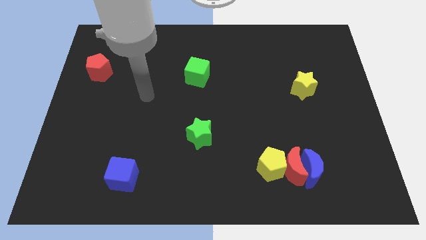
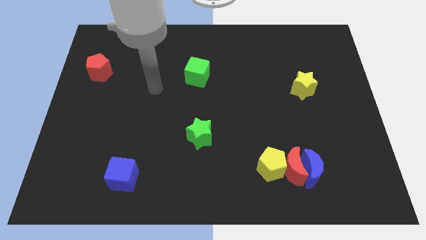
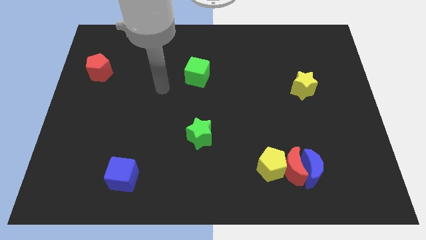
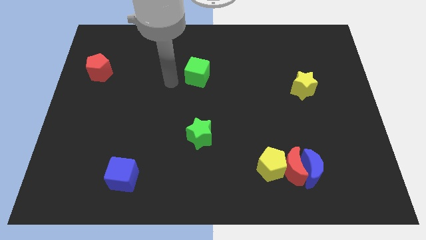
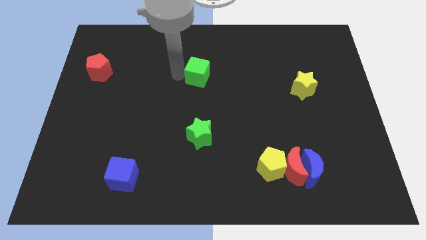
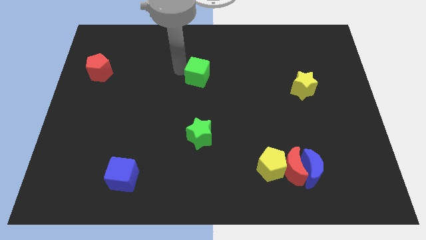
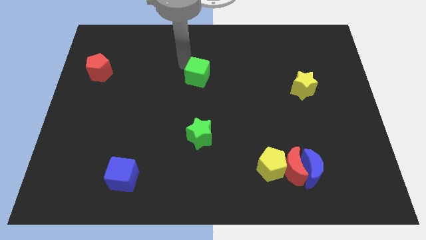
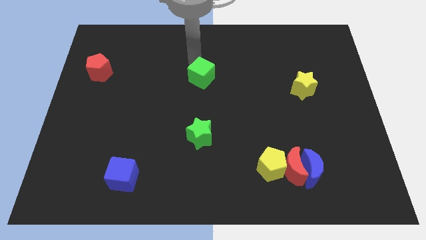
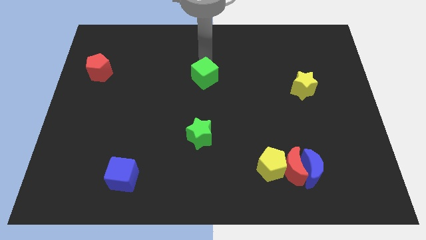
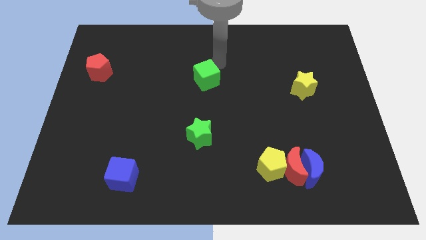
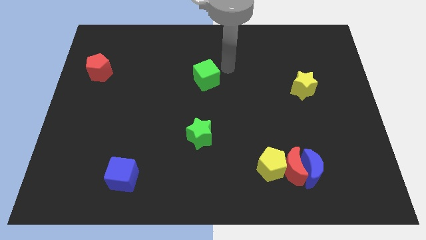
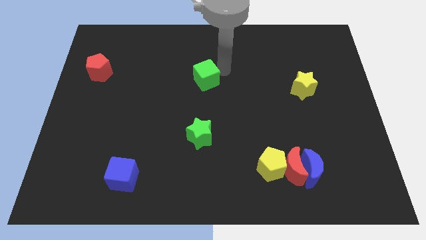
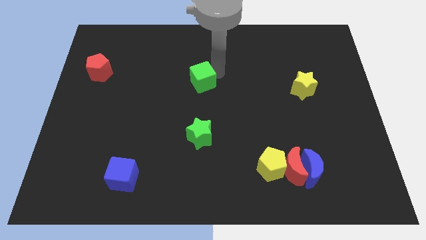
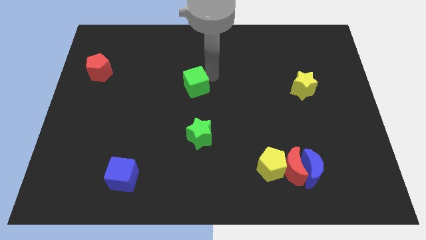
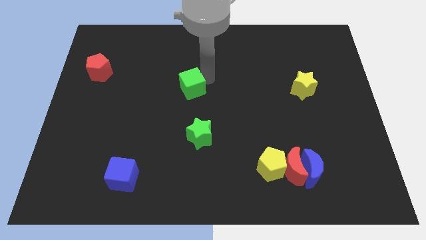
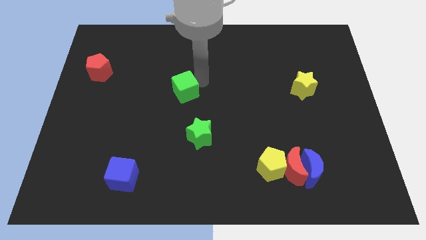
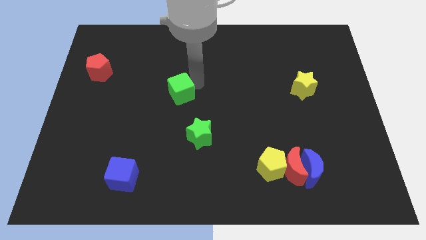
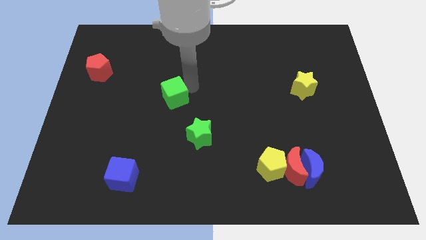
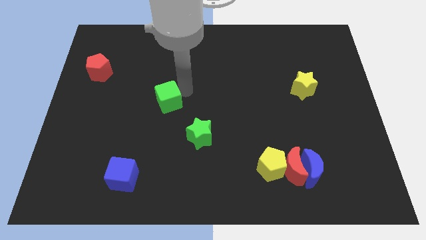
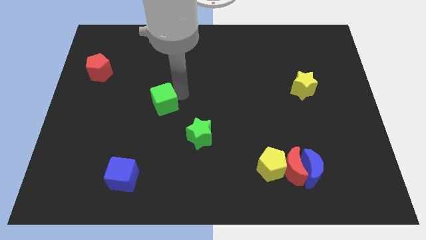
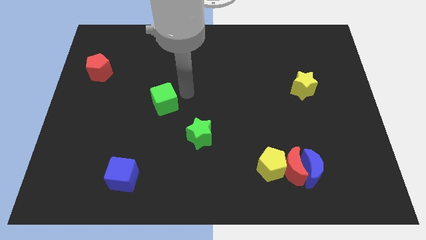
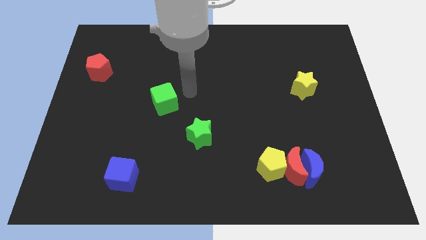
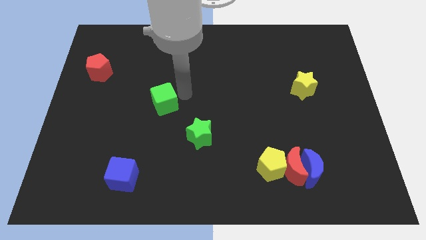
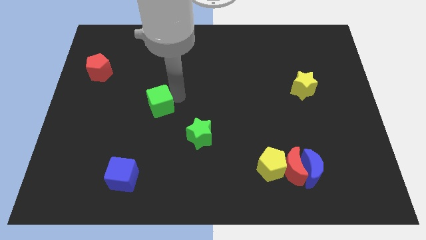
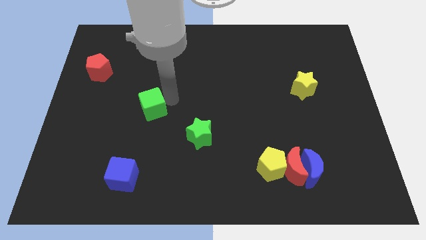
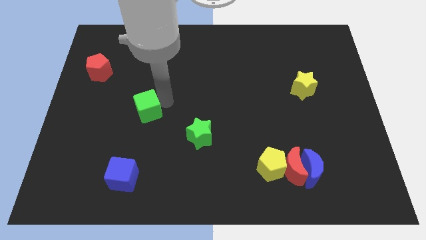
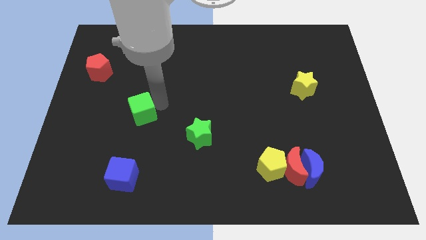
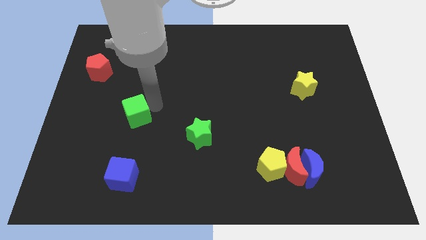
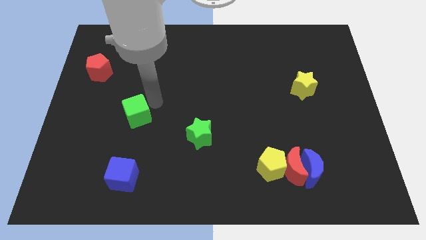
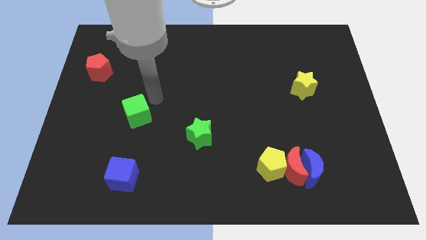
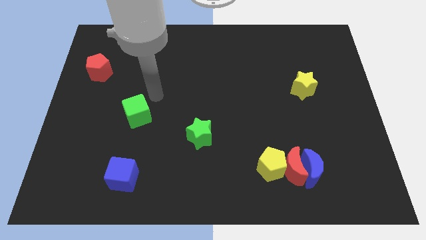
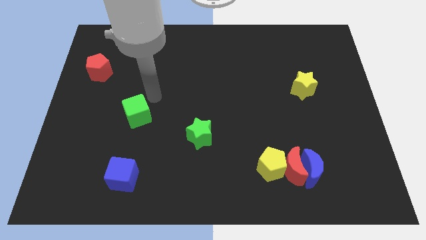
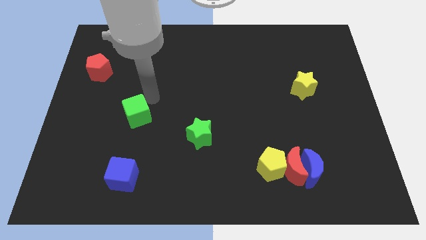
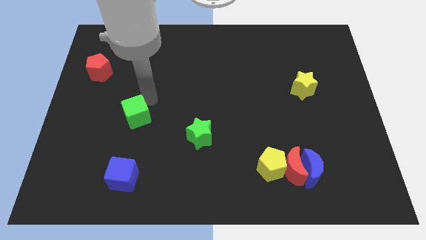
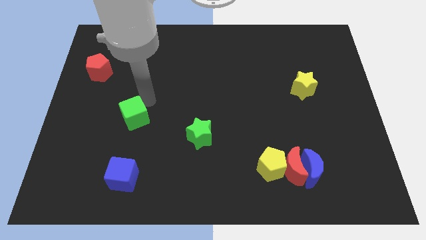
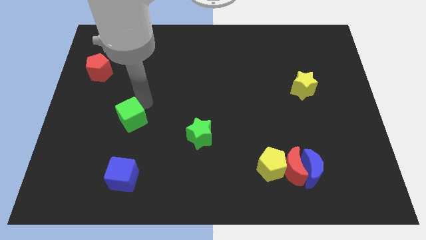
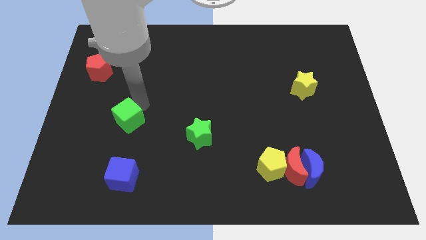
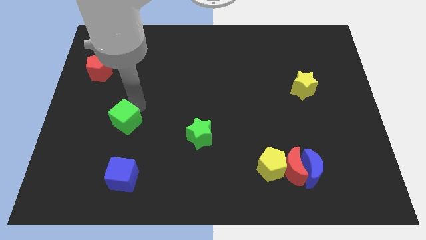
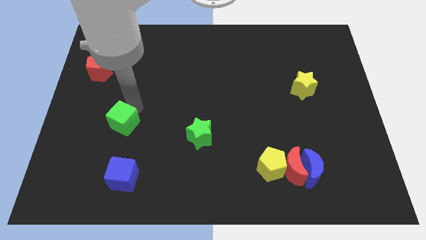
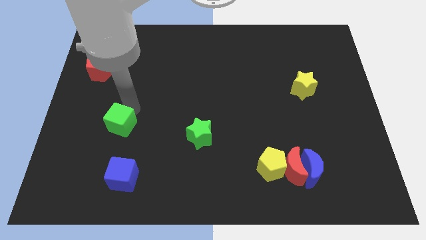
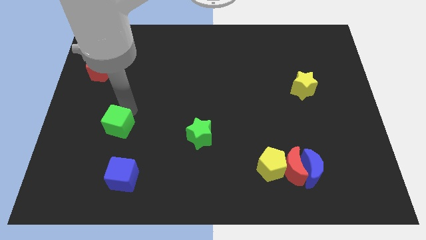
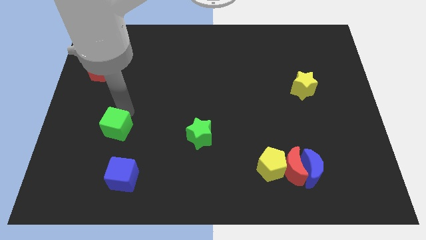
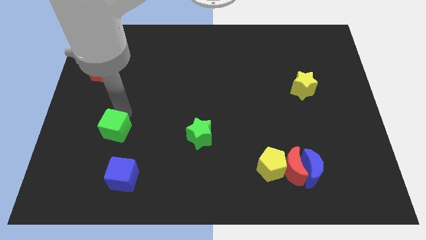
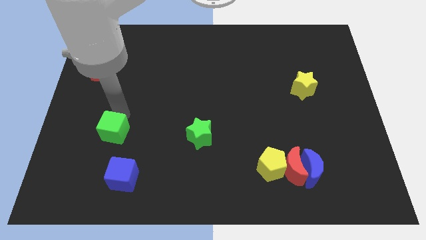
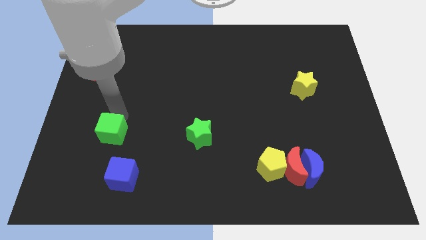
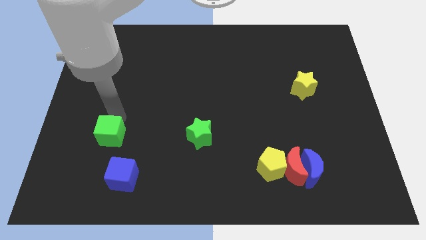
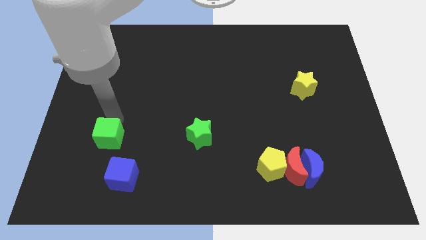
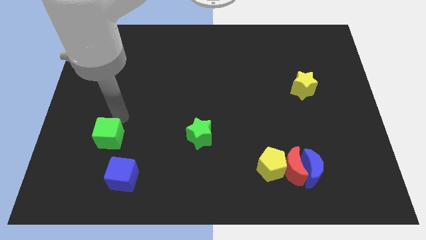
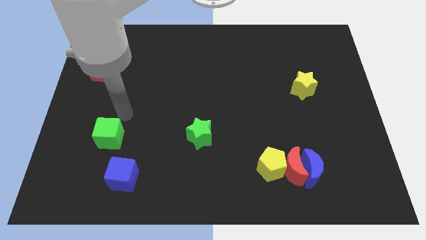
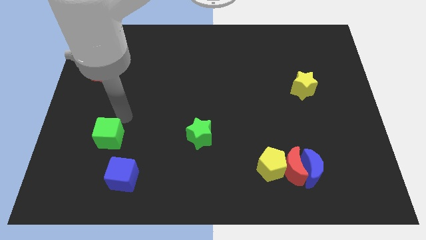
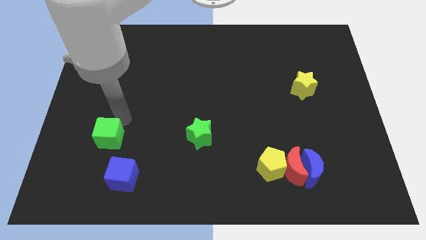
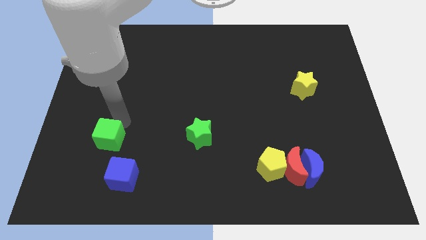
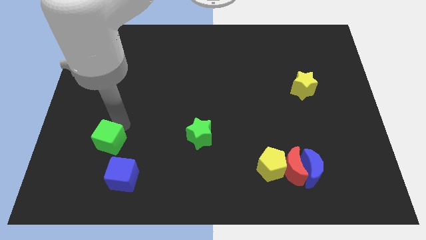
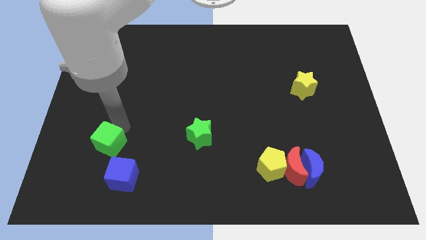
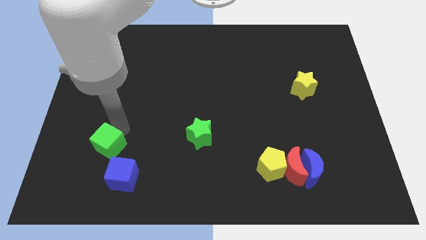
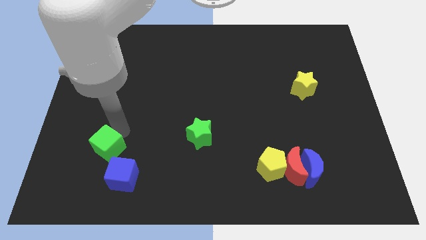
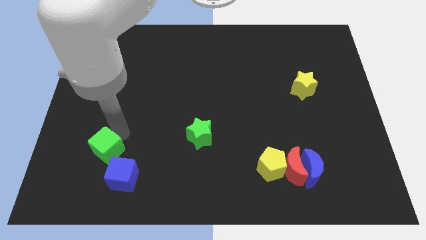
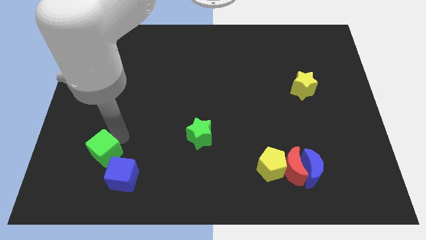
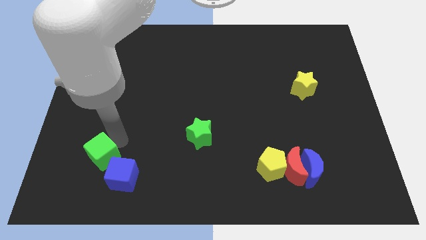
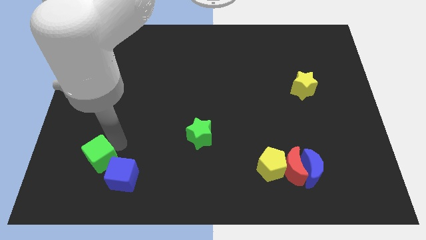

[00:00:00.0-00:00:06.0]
move the green cube just left of the blue cube

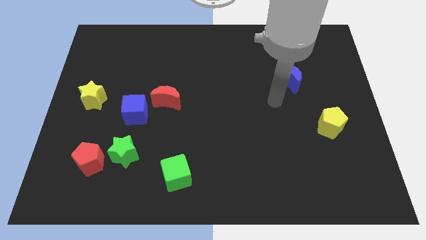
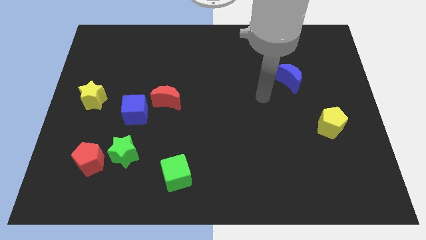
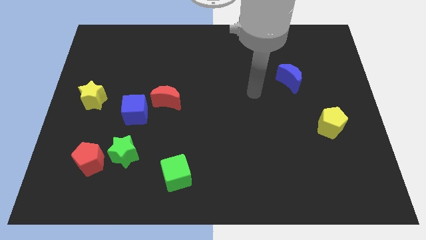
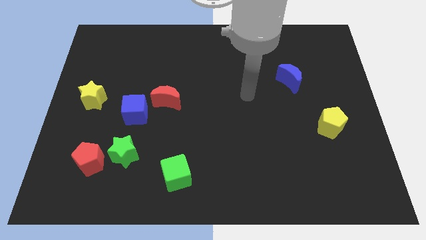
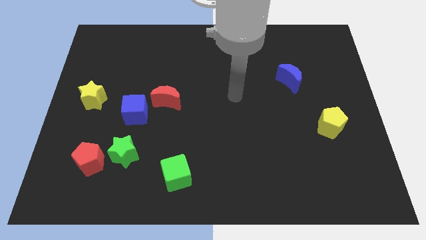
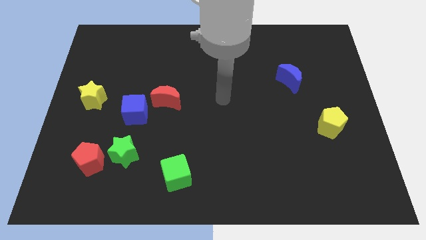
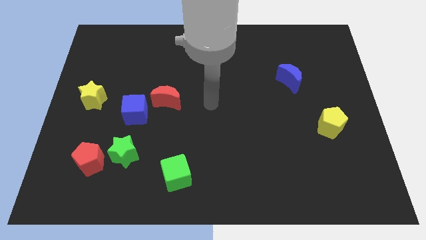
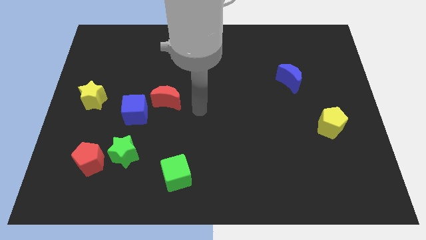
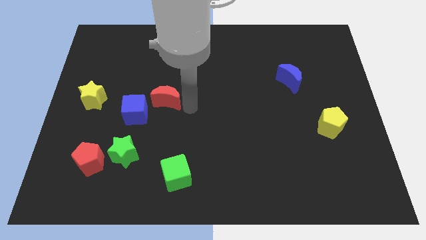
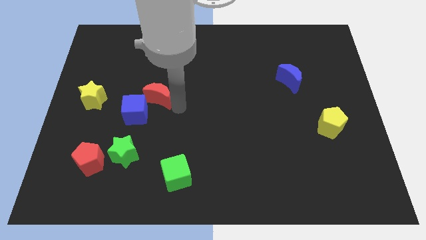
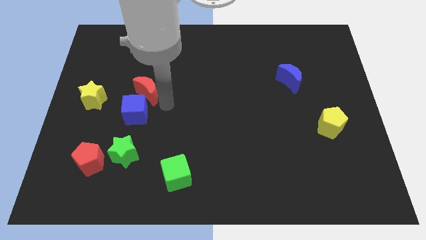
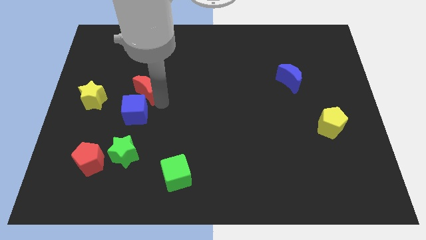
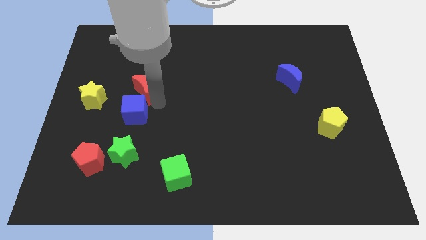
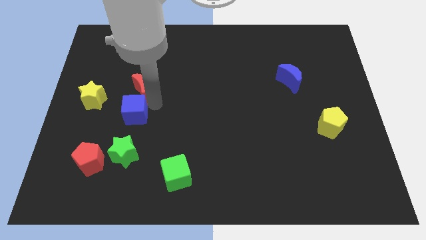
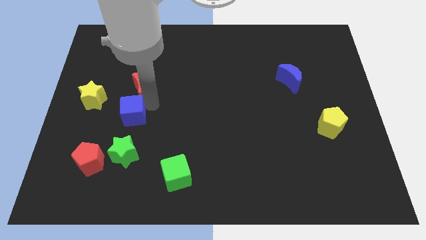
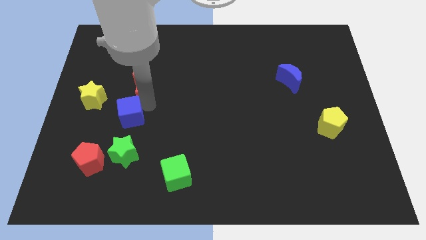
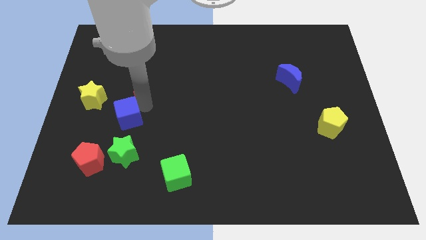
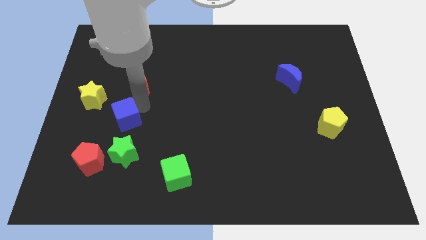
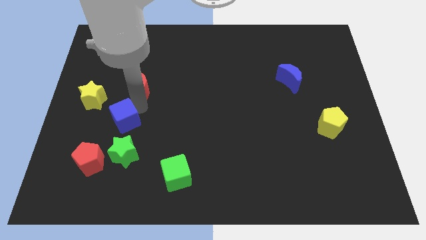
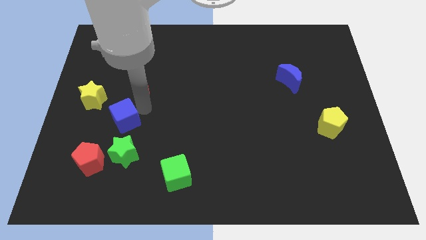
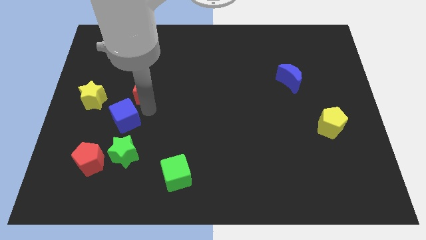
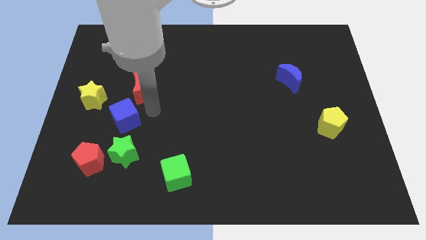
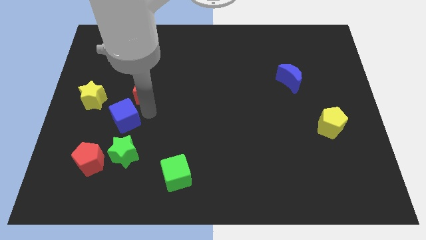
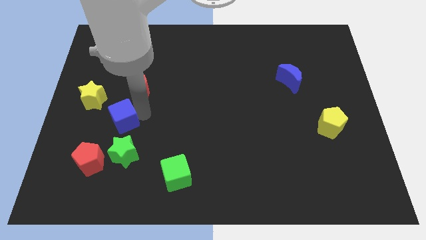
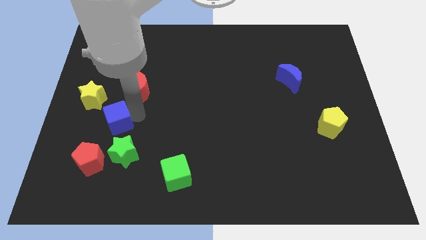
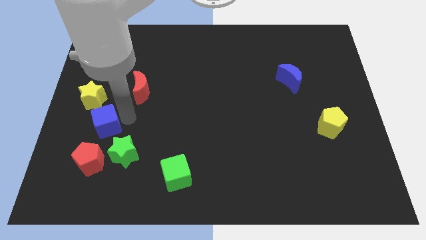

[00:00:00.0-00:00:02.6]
put the blue cube to the bottom of the yellow star
